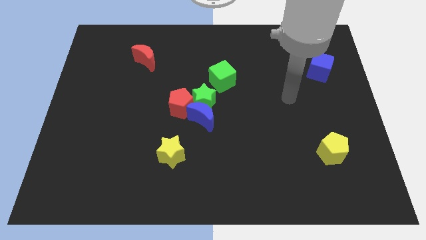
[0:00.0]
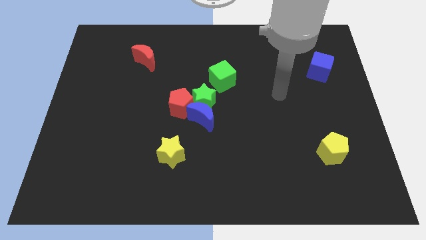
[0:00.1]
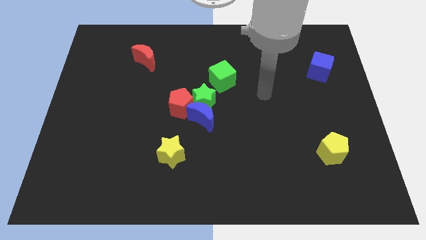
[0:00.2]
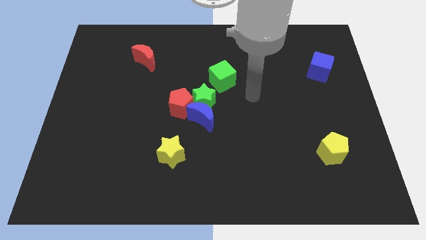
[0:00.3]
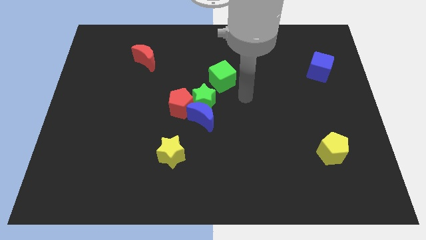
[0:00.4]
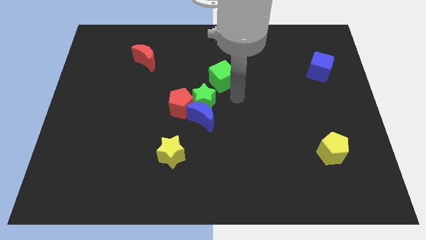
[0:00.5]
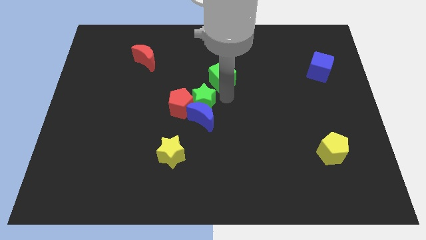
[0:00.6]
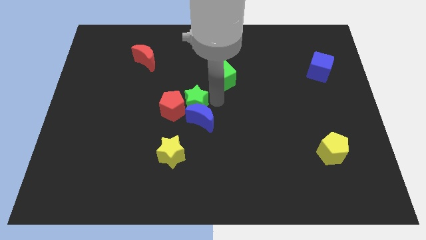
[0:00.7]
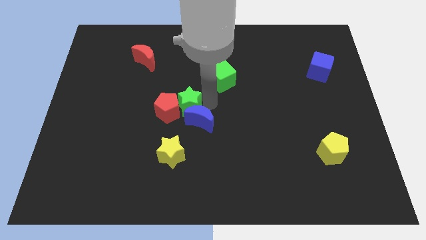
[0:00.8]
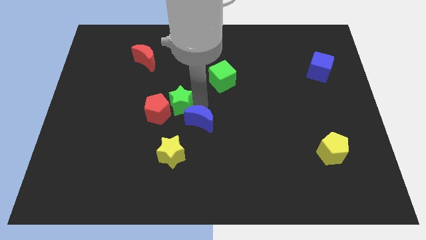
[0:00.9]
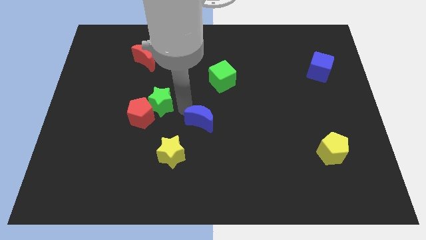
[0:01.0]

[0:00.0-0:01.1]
pull the blue moon apart from the green star and red pentagon

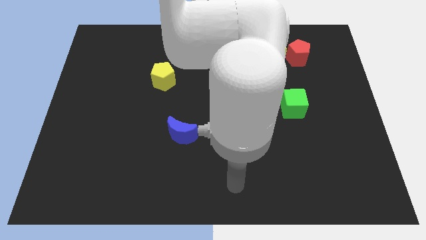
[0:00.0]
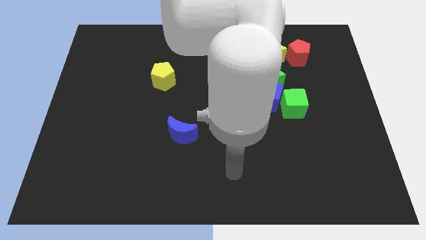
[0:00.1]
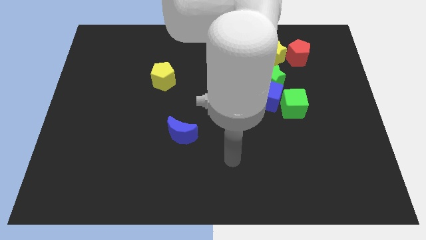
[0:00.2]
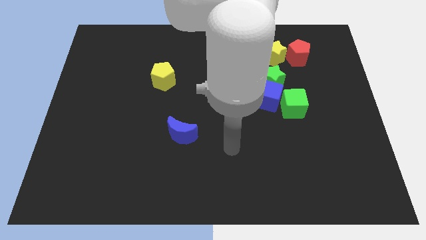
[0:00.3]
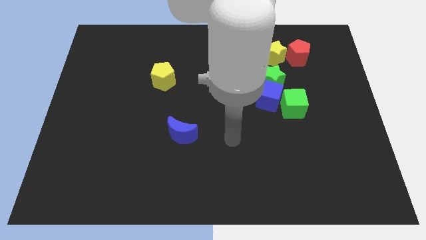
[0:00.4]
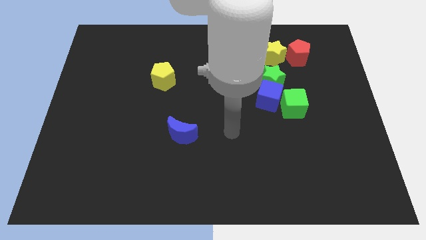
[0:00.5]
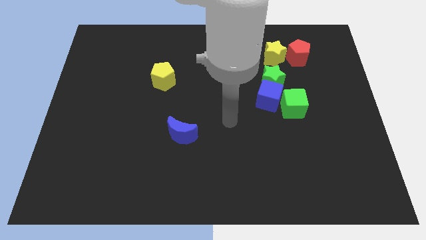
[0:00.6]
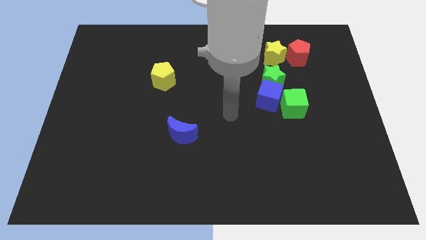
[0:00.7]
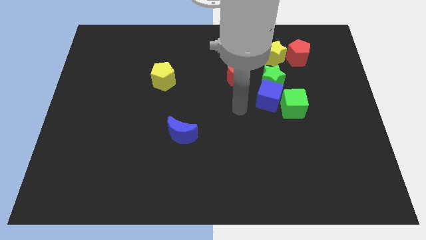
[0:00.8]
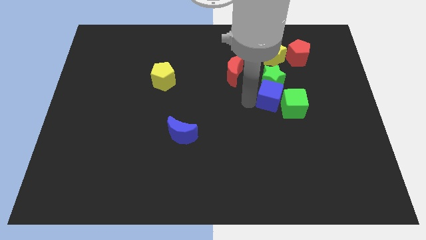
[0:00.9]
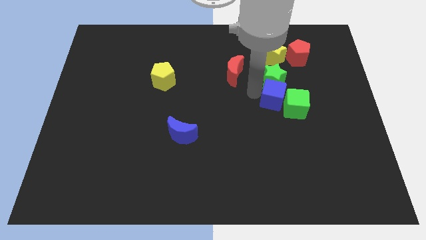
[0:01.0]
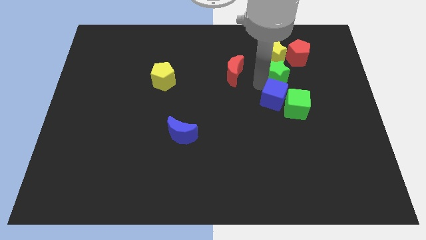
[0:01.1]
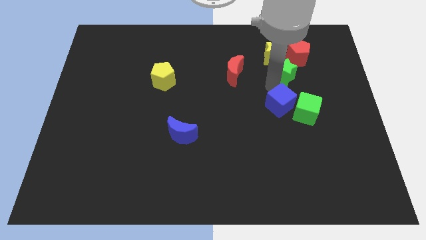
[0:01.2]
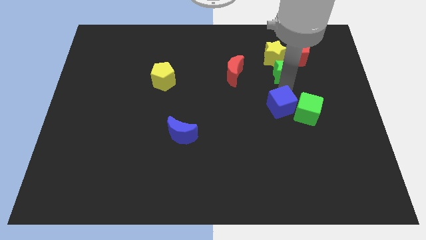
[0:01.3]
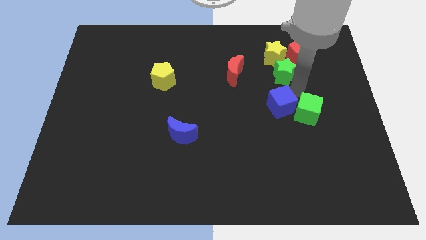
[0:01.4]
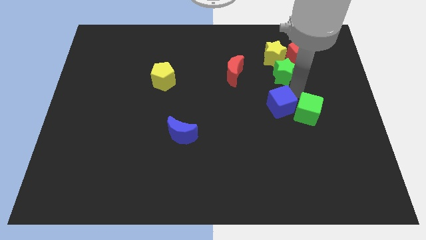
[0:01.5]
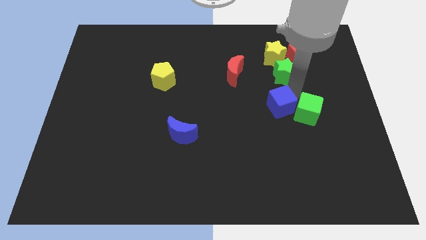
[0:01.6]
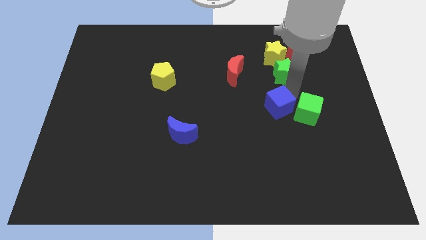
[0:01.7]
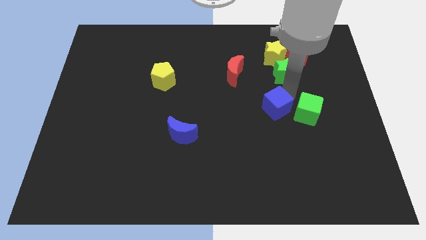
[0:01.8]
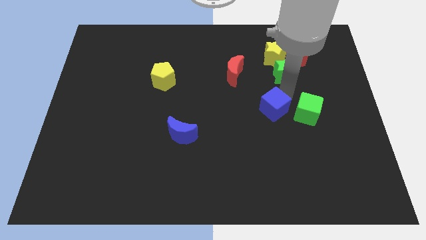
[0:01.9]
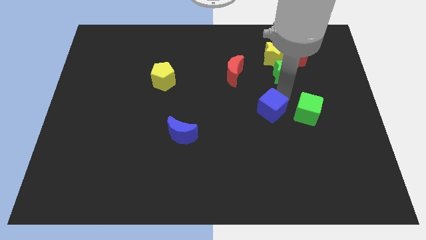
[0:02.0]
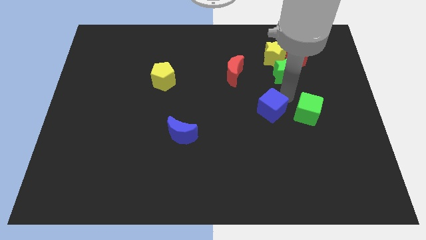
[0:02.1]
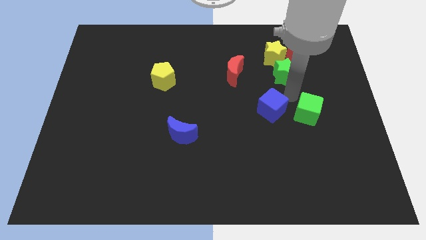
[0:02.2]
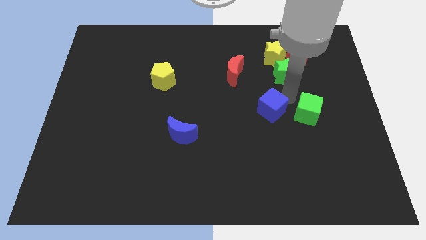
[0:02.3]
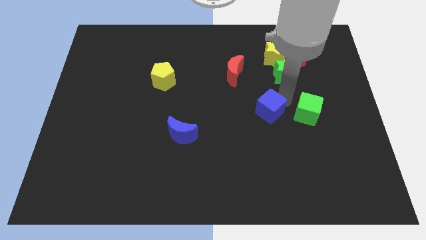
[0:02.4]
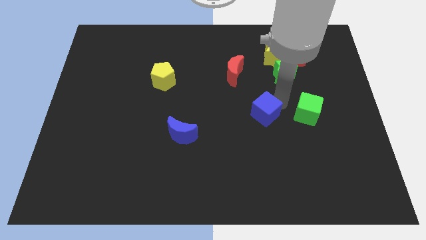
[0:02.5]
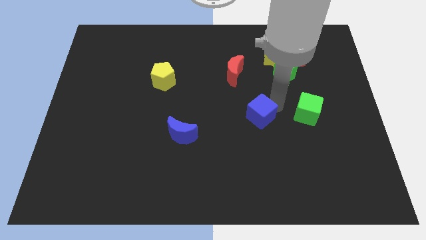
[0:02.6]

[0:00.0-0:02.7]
separate the blue cube from the green star and green cube

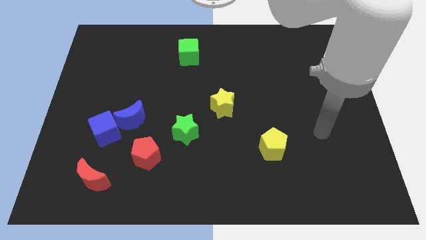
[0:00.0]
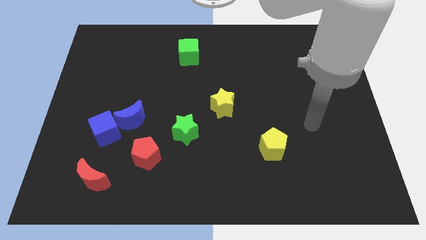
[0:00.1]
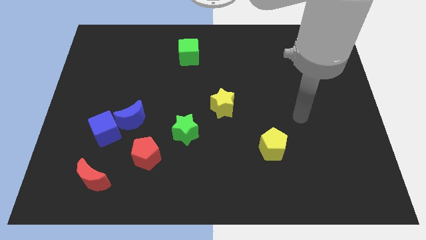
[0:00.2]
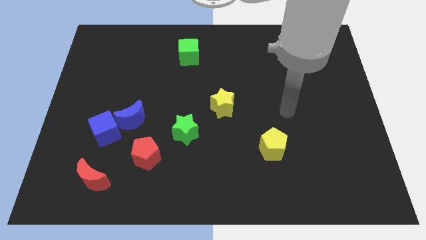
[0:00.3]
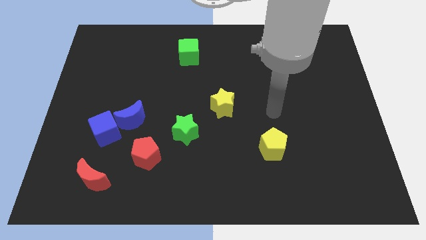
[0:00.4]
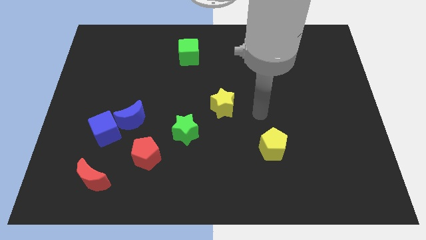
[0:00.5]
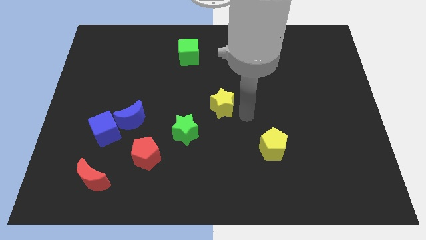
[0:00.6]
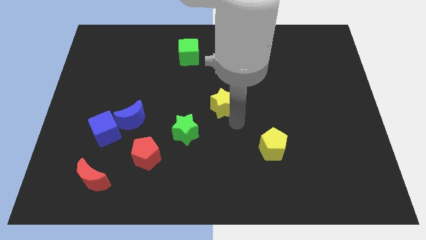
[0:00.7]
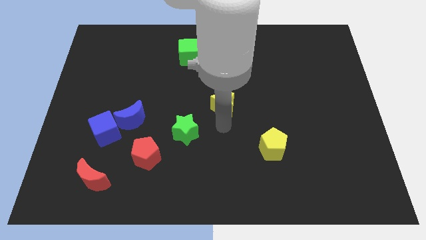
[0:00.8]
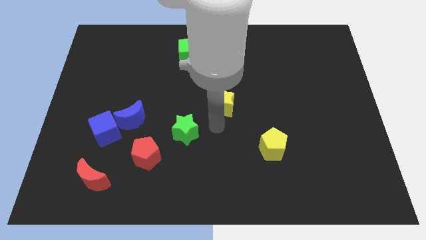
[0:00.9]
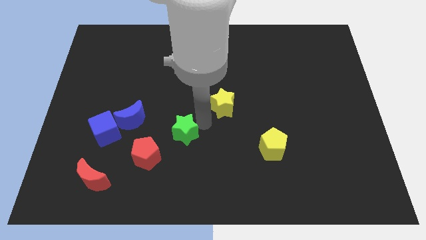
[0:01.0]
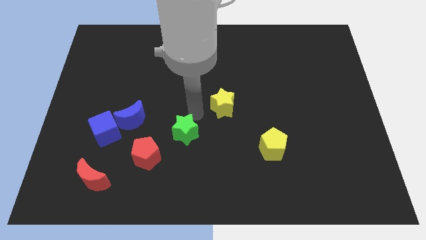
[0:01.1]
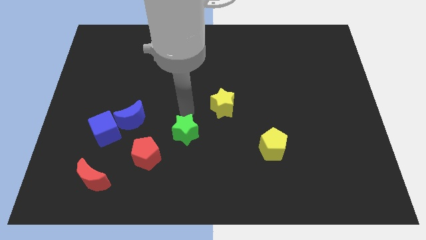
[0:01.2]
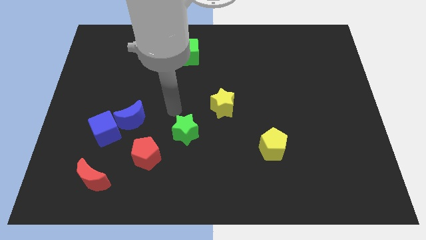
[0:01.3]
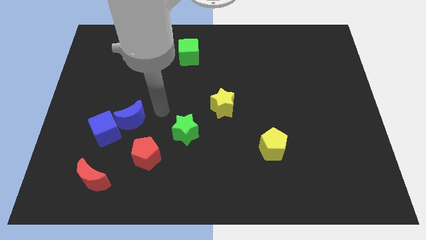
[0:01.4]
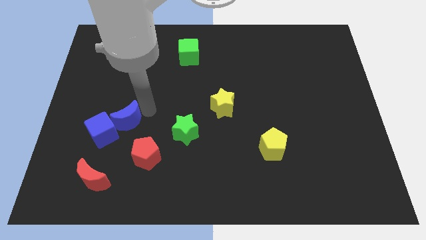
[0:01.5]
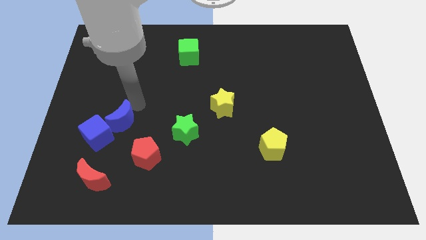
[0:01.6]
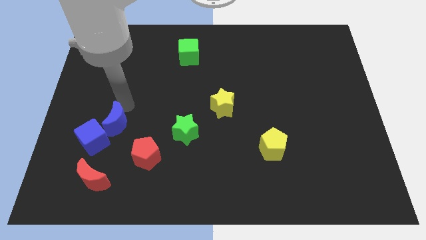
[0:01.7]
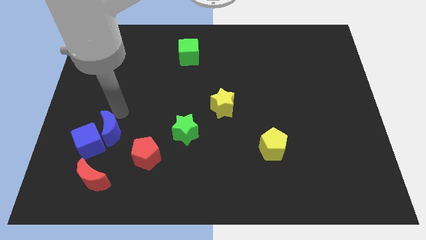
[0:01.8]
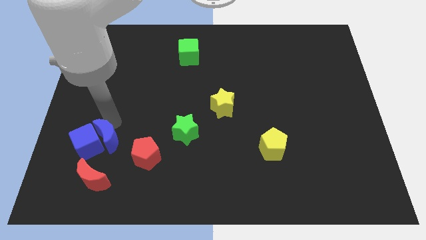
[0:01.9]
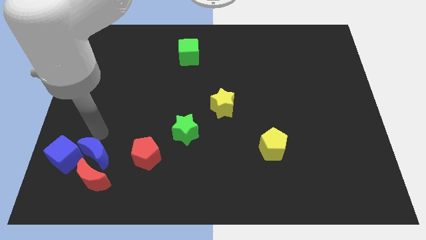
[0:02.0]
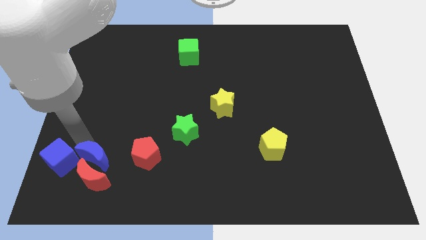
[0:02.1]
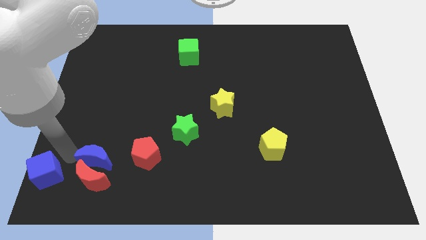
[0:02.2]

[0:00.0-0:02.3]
move the blue moon away from the blue cube

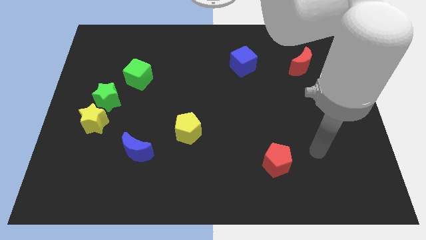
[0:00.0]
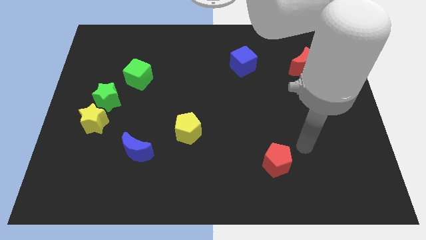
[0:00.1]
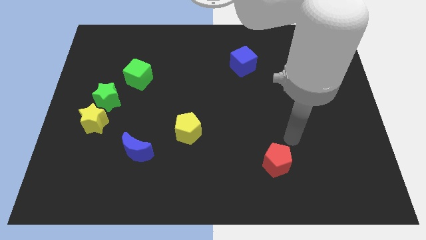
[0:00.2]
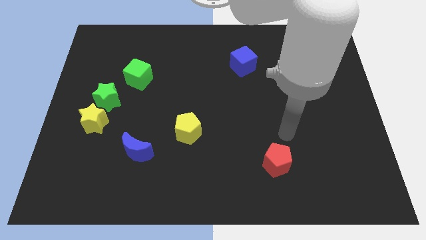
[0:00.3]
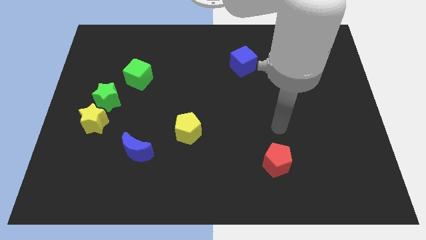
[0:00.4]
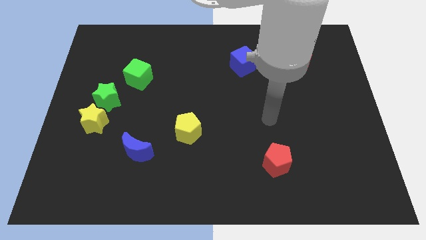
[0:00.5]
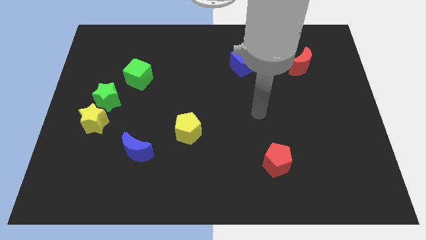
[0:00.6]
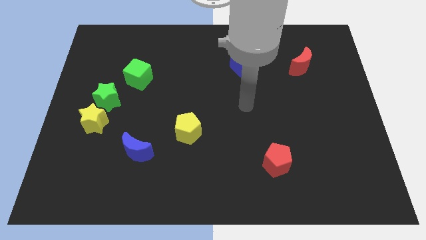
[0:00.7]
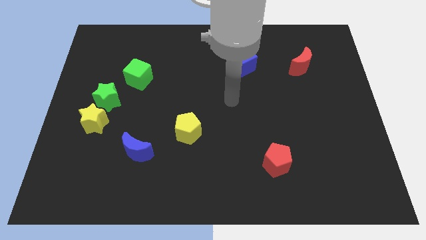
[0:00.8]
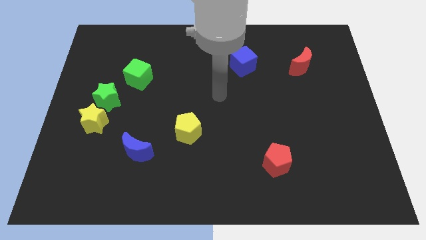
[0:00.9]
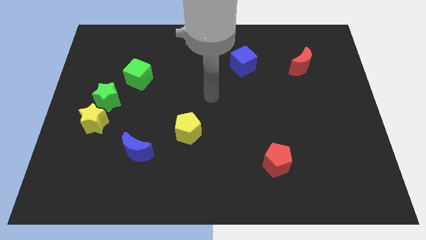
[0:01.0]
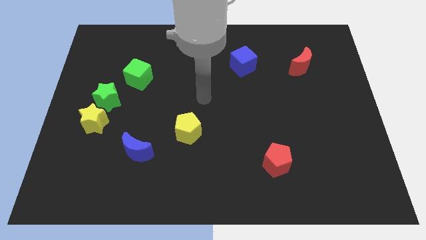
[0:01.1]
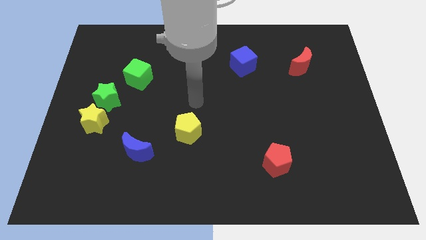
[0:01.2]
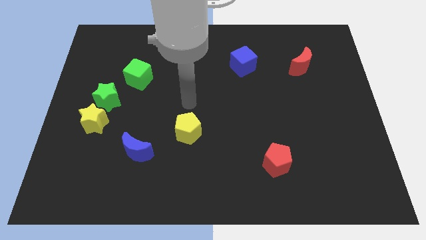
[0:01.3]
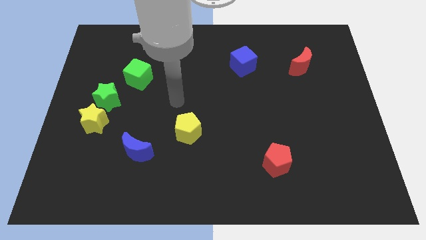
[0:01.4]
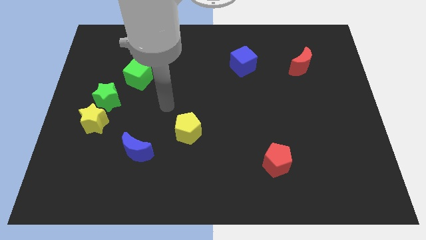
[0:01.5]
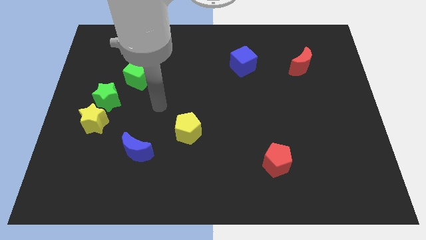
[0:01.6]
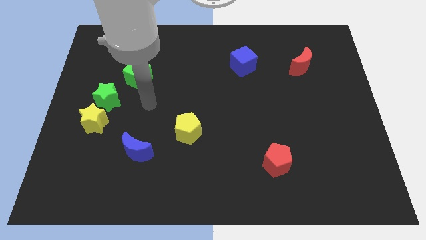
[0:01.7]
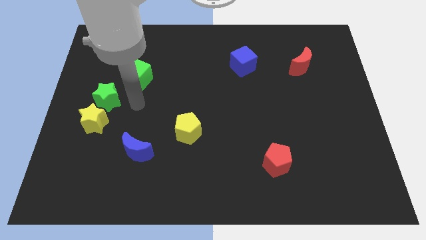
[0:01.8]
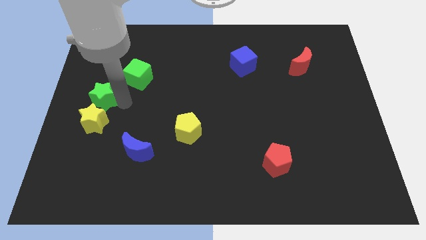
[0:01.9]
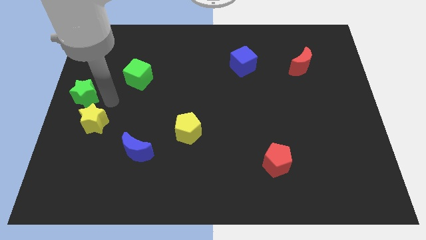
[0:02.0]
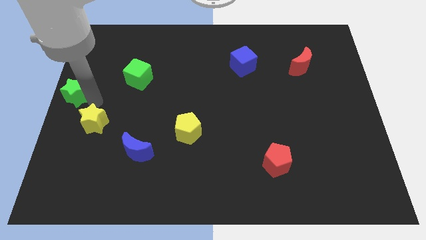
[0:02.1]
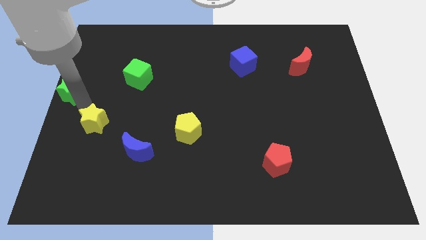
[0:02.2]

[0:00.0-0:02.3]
pull the yellow star apart from the green star

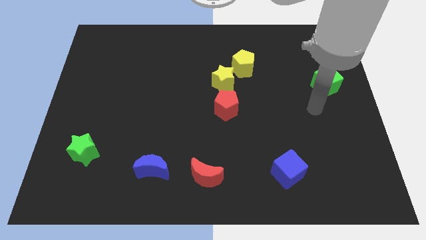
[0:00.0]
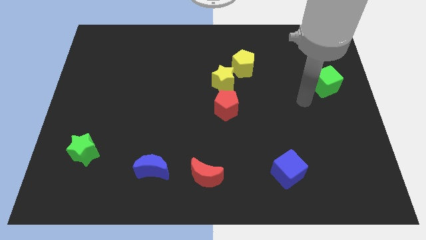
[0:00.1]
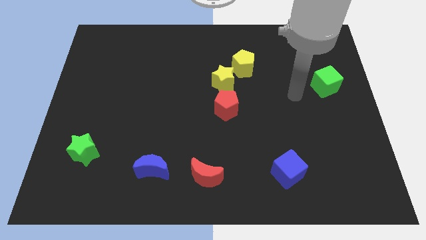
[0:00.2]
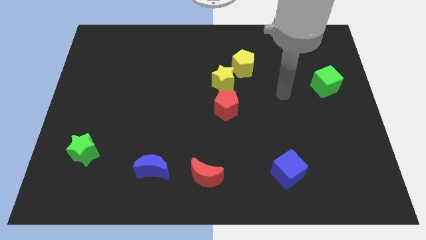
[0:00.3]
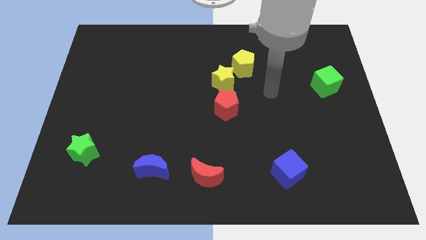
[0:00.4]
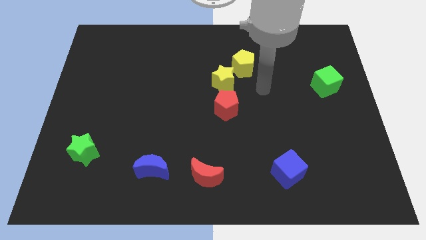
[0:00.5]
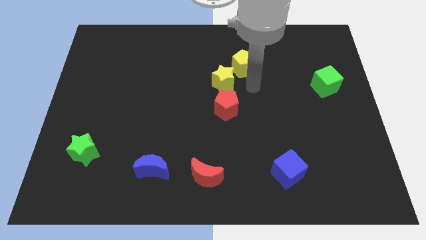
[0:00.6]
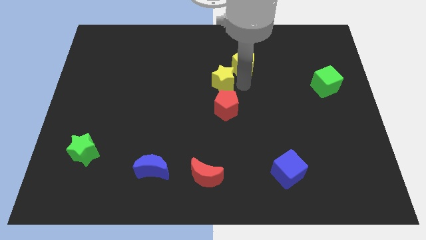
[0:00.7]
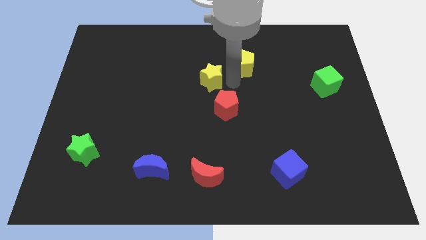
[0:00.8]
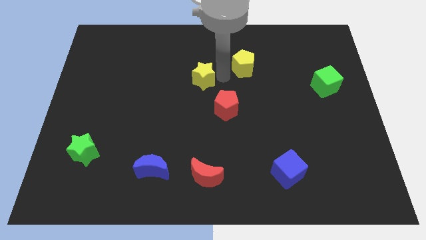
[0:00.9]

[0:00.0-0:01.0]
pull the yellow pentagon apart from the yellow star
